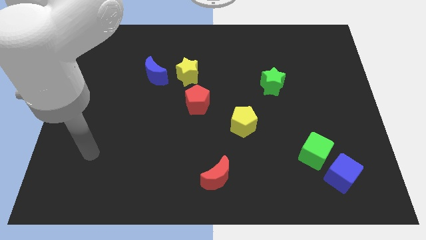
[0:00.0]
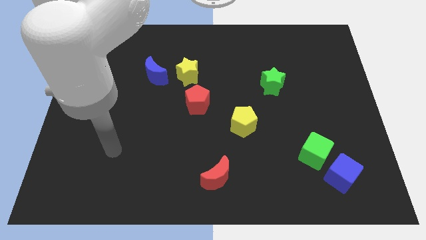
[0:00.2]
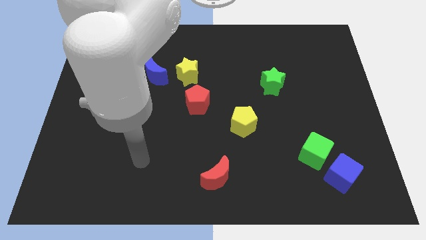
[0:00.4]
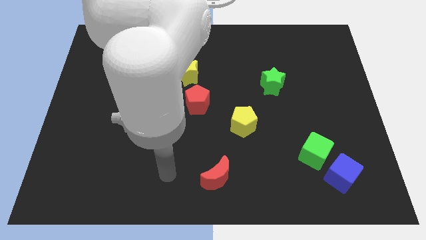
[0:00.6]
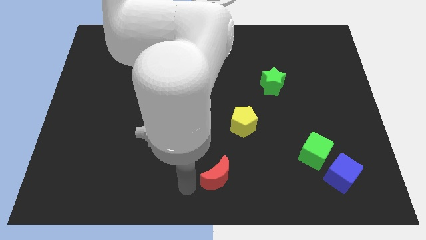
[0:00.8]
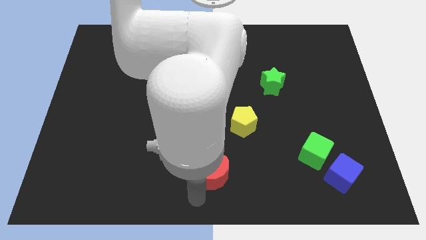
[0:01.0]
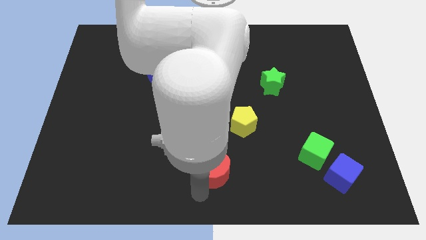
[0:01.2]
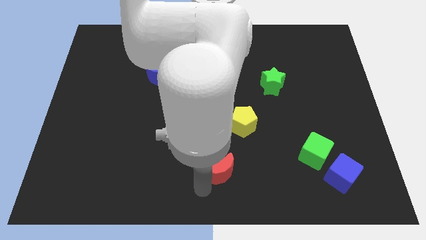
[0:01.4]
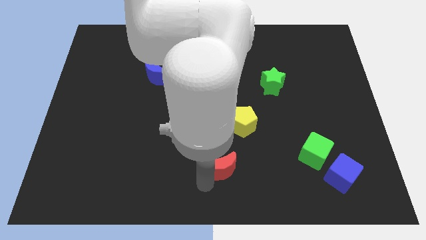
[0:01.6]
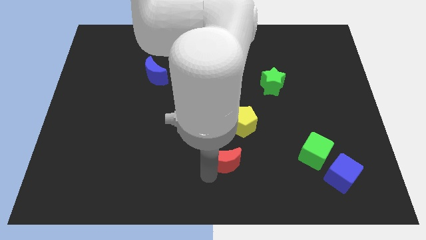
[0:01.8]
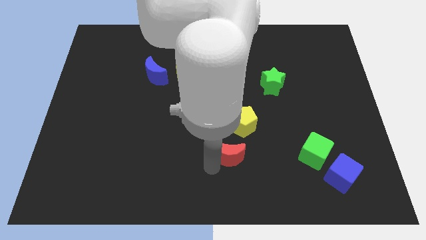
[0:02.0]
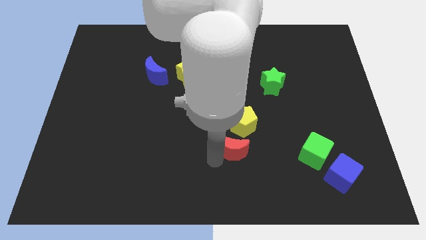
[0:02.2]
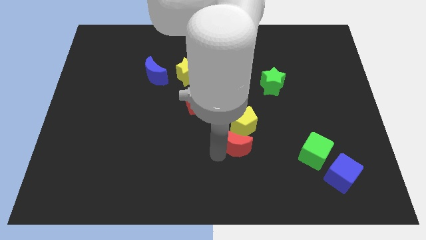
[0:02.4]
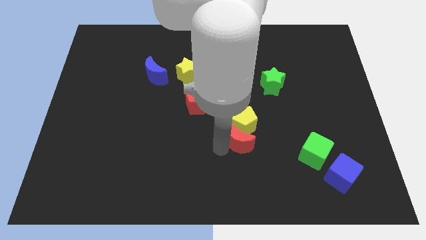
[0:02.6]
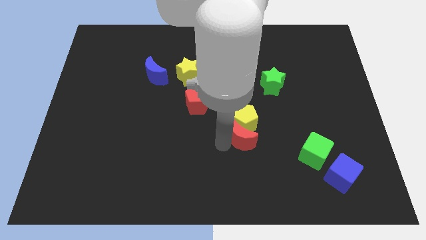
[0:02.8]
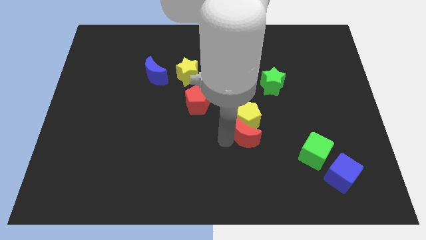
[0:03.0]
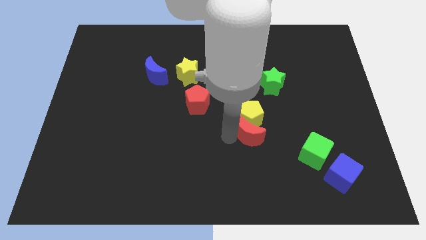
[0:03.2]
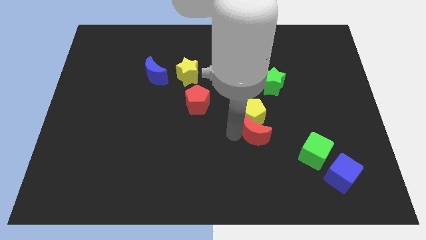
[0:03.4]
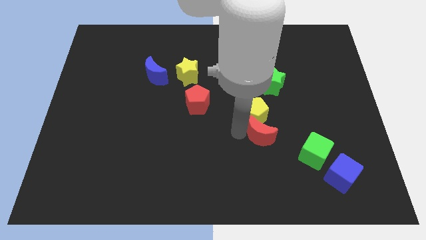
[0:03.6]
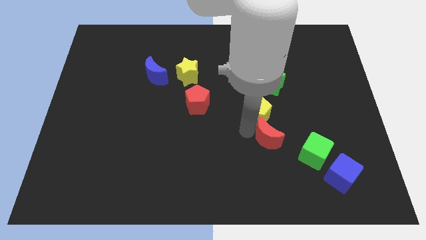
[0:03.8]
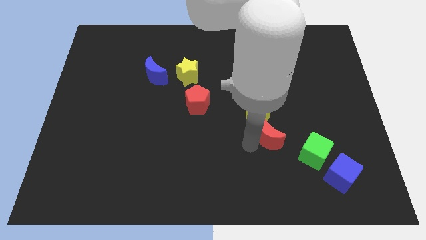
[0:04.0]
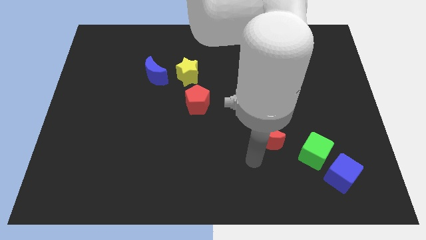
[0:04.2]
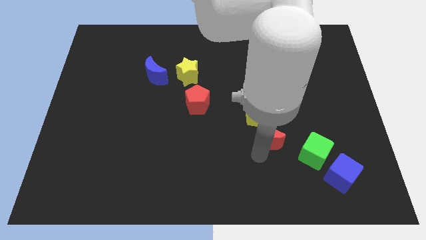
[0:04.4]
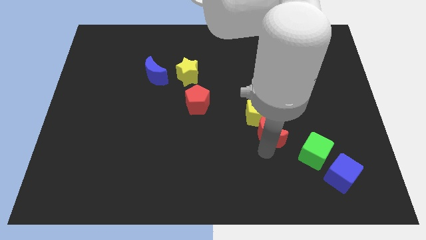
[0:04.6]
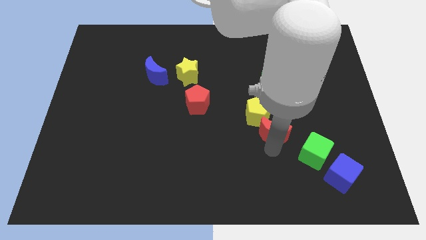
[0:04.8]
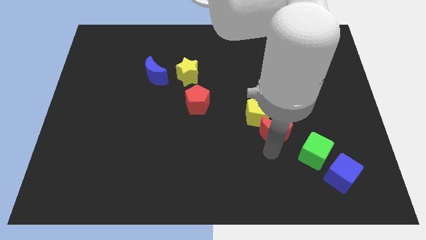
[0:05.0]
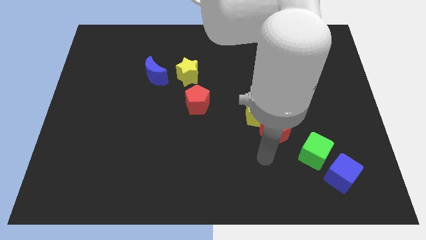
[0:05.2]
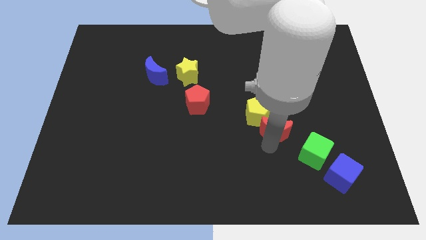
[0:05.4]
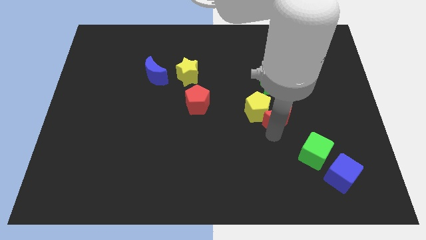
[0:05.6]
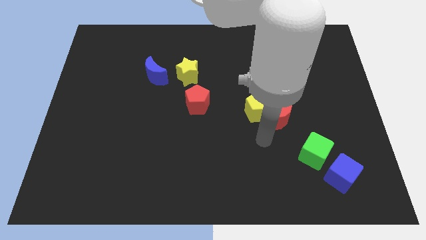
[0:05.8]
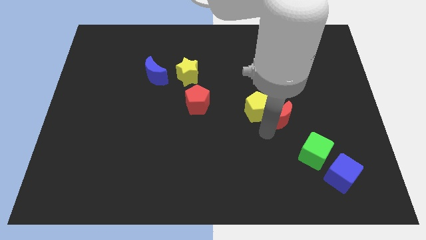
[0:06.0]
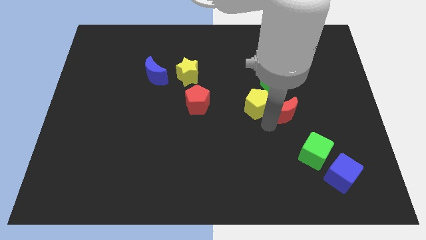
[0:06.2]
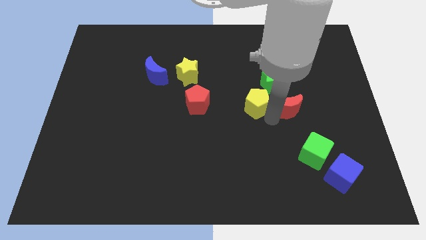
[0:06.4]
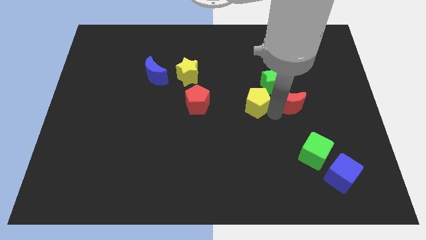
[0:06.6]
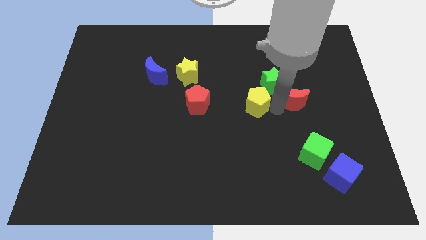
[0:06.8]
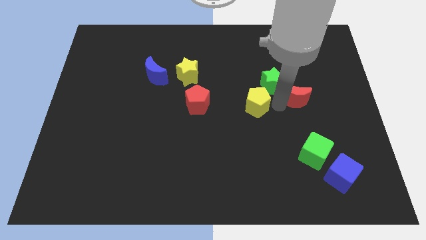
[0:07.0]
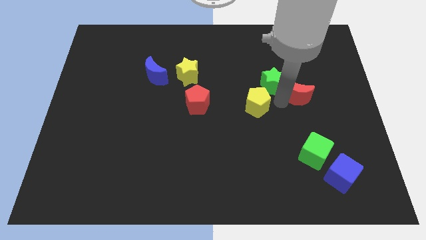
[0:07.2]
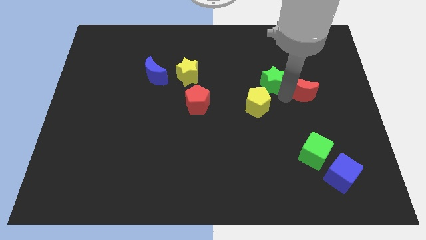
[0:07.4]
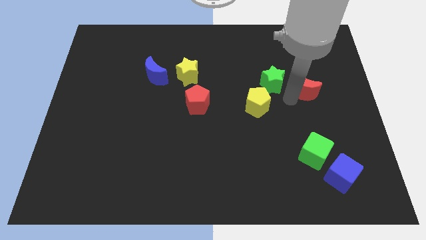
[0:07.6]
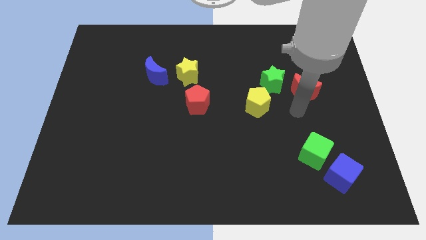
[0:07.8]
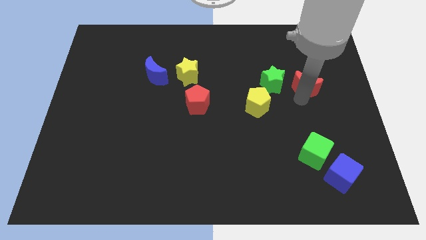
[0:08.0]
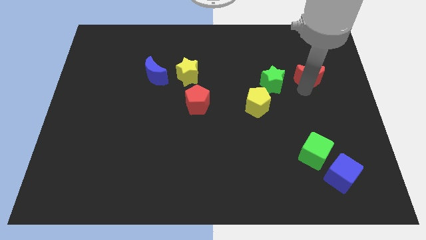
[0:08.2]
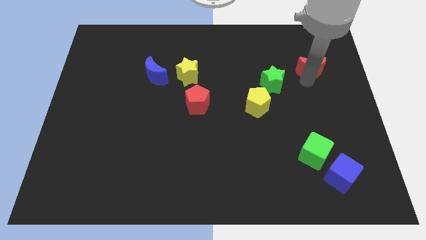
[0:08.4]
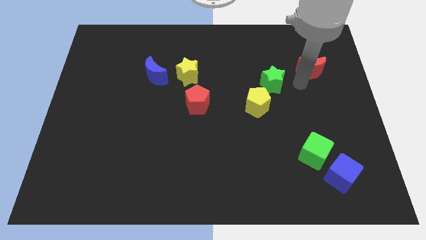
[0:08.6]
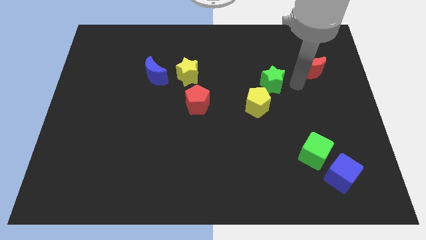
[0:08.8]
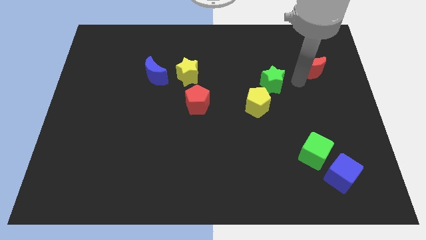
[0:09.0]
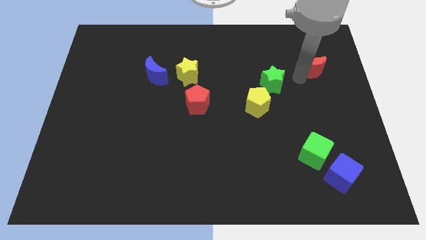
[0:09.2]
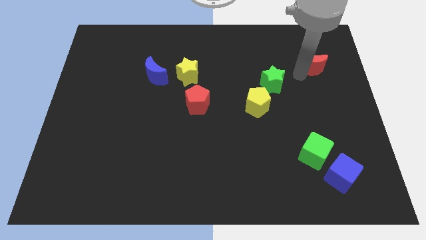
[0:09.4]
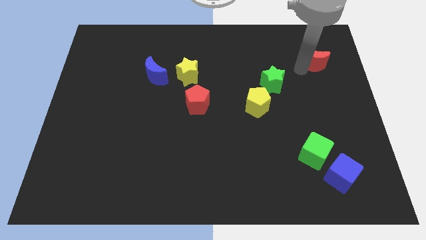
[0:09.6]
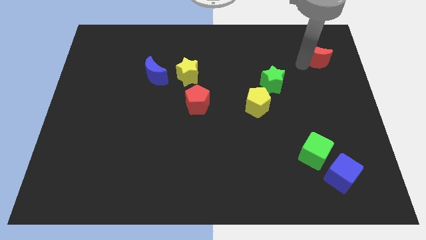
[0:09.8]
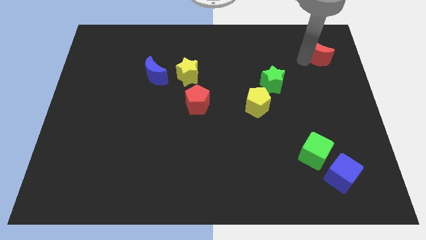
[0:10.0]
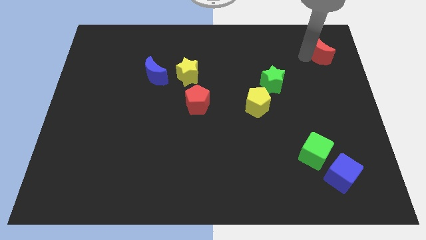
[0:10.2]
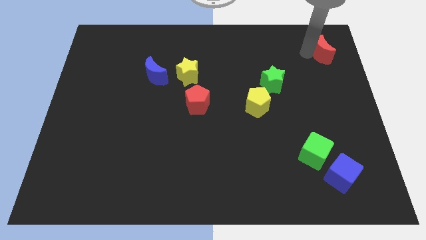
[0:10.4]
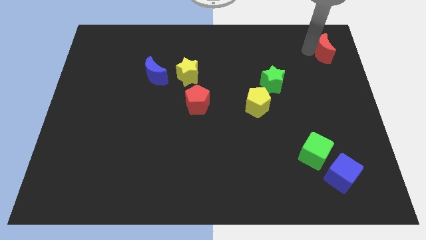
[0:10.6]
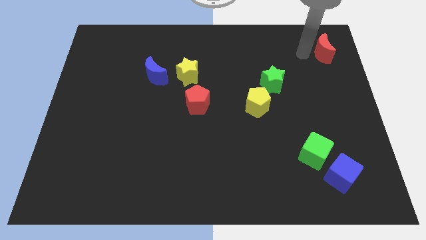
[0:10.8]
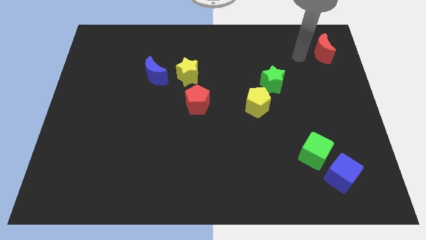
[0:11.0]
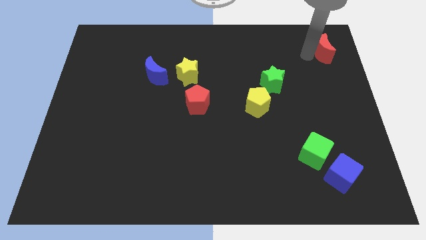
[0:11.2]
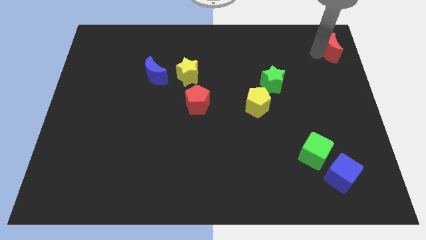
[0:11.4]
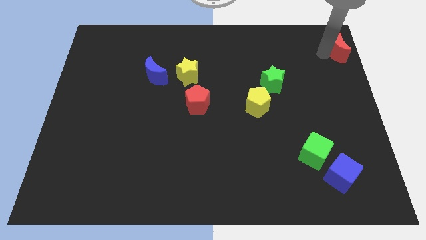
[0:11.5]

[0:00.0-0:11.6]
push the red moon to the top right of the board

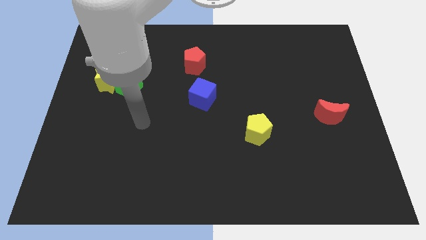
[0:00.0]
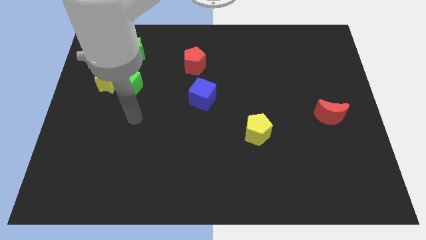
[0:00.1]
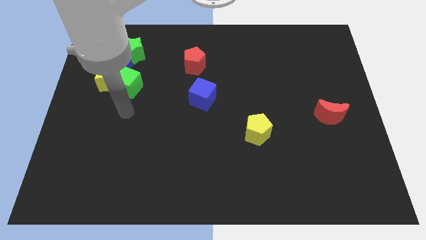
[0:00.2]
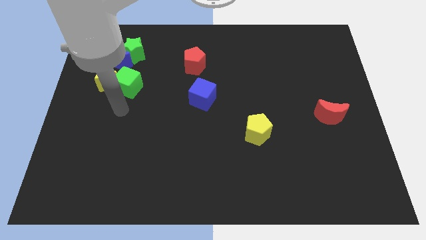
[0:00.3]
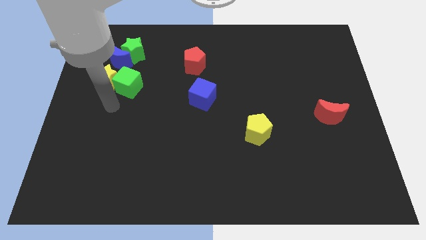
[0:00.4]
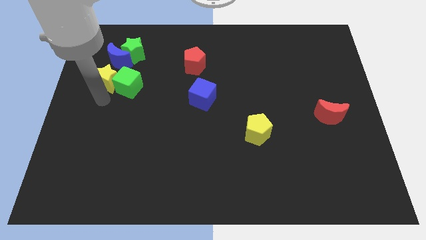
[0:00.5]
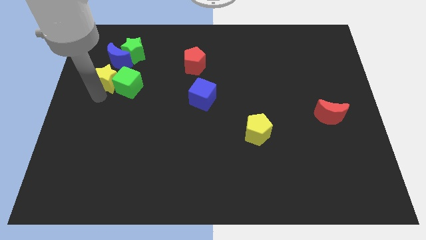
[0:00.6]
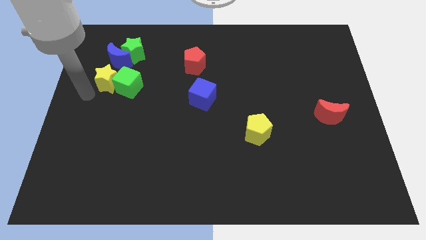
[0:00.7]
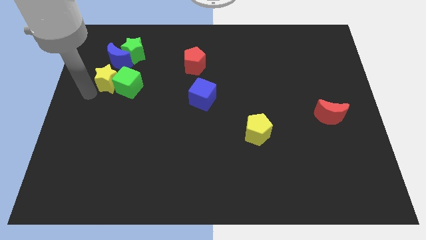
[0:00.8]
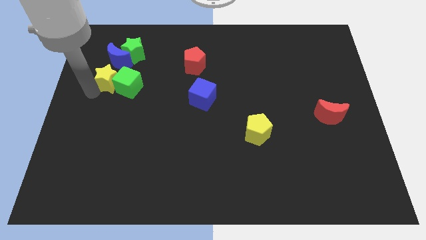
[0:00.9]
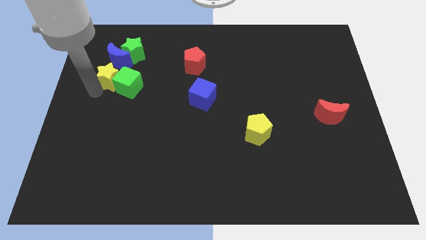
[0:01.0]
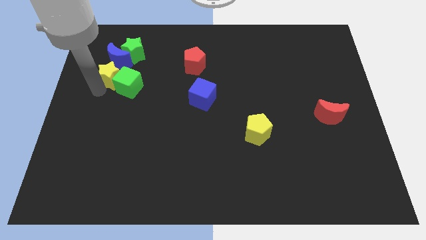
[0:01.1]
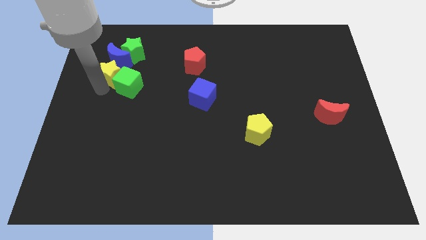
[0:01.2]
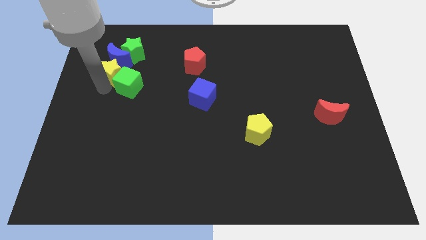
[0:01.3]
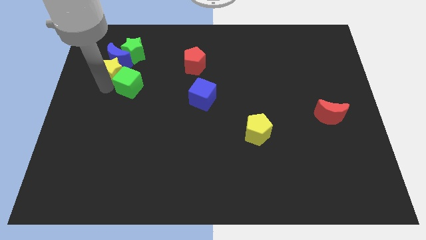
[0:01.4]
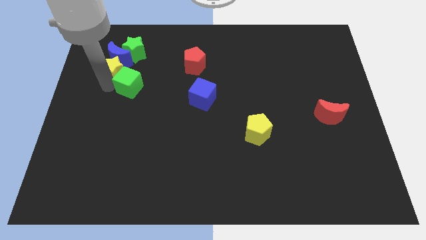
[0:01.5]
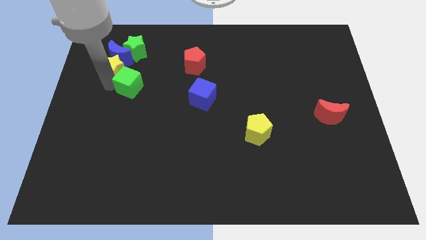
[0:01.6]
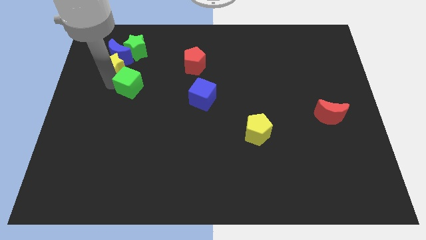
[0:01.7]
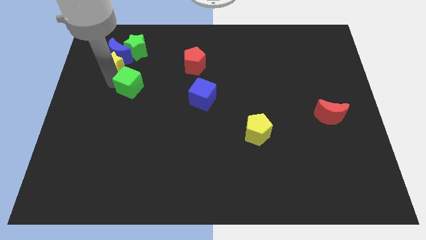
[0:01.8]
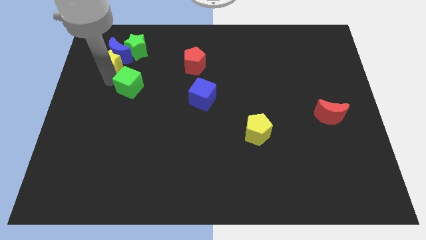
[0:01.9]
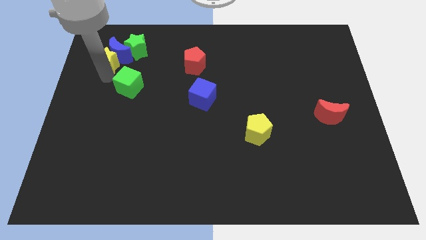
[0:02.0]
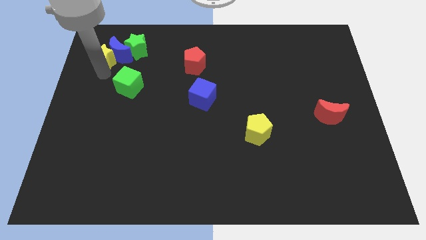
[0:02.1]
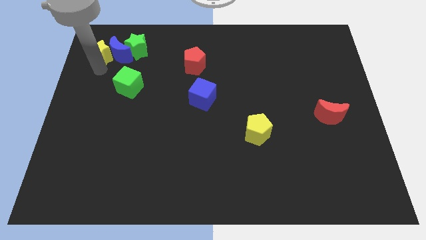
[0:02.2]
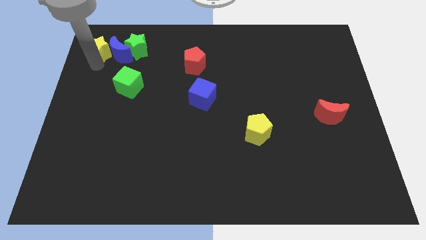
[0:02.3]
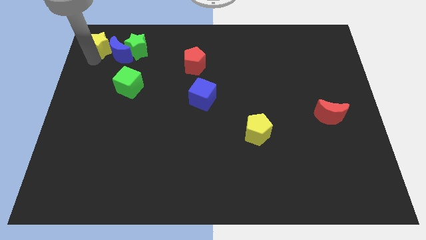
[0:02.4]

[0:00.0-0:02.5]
move the yellow star to the top left corner
